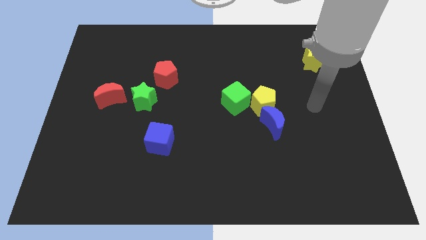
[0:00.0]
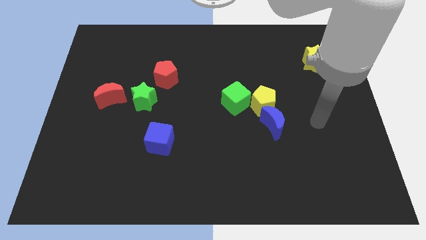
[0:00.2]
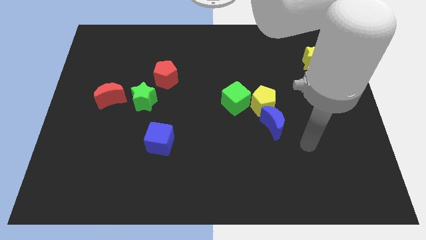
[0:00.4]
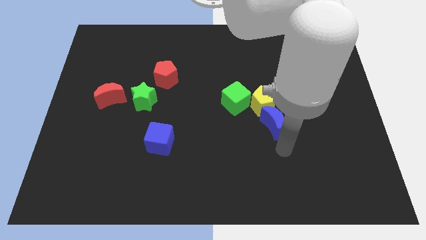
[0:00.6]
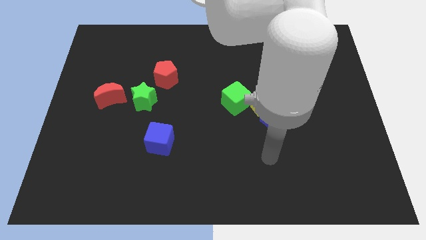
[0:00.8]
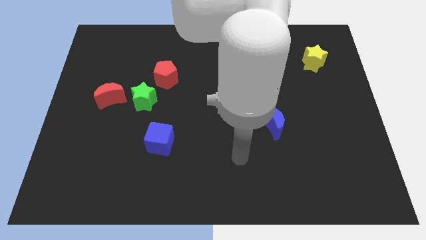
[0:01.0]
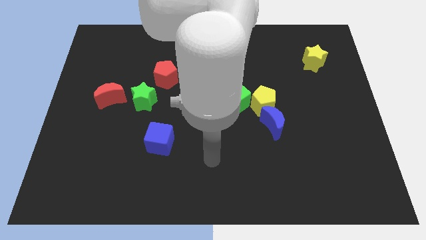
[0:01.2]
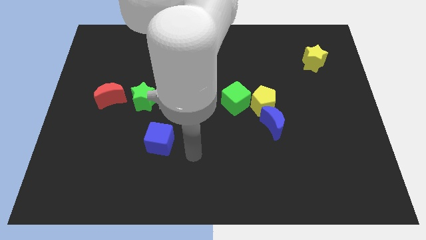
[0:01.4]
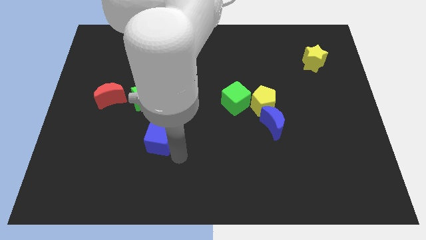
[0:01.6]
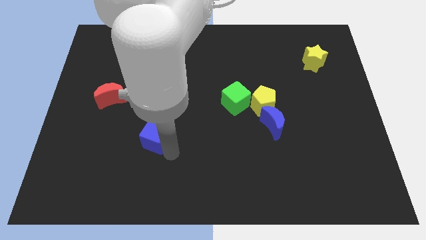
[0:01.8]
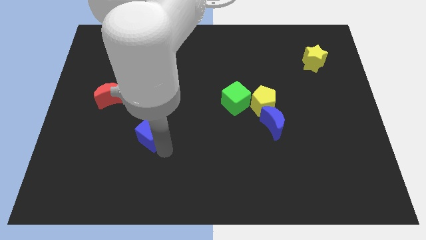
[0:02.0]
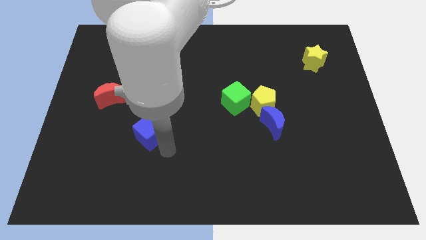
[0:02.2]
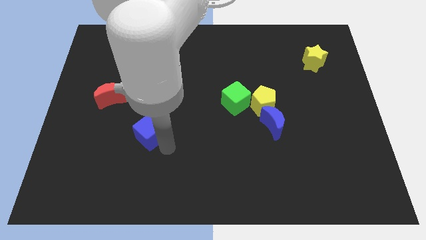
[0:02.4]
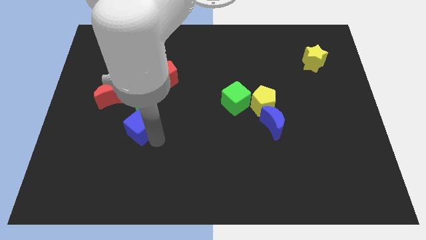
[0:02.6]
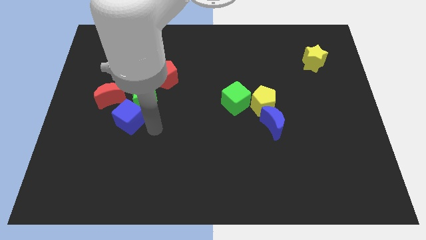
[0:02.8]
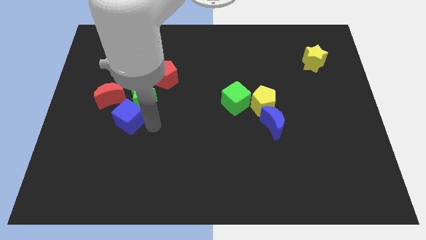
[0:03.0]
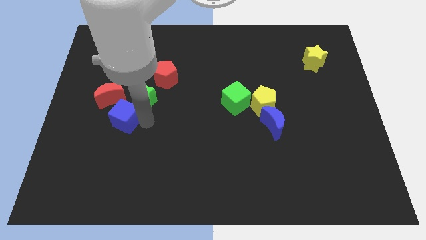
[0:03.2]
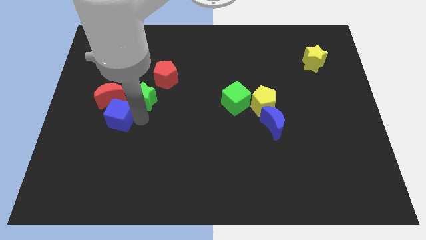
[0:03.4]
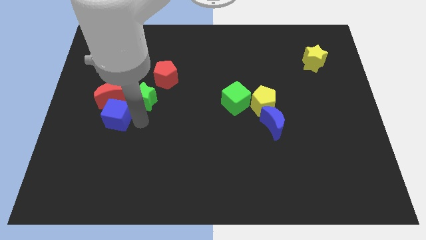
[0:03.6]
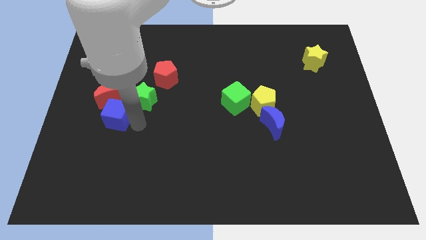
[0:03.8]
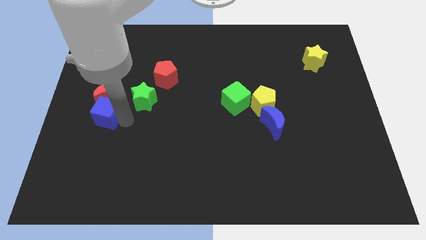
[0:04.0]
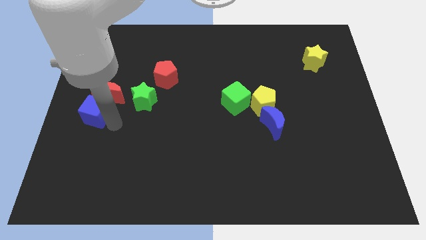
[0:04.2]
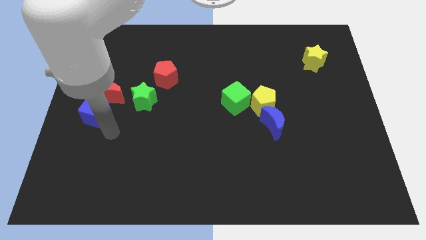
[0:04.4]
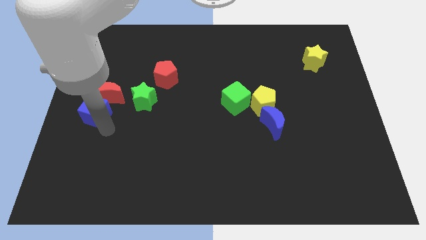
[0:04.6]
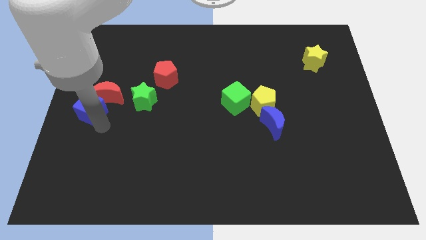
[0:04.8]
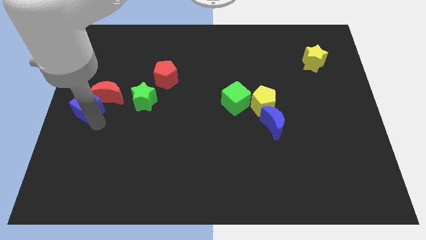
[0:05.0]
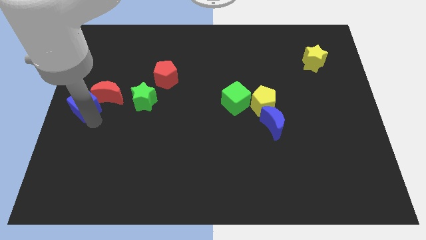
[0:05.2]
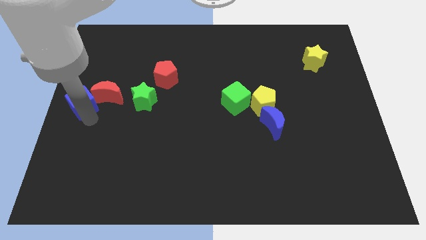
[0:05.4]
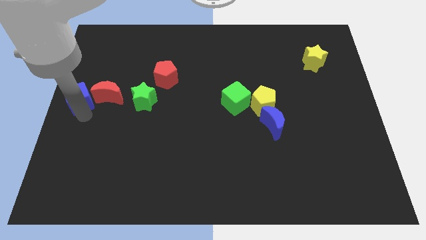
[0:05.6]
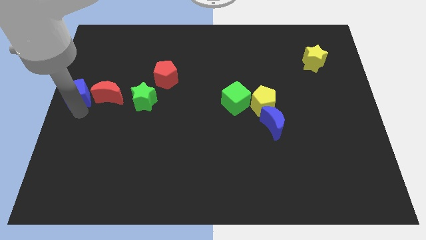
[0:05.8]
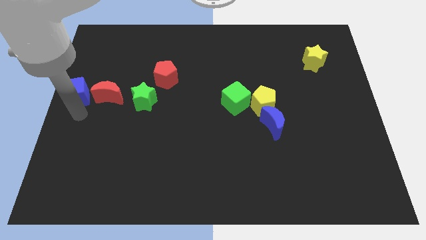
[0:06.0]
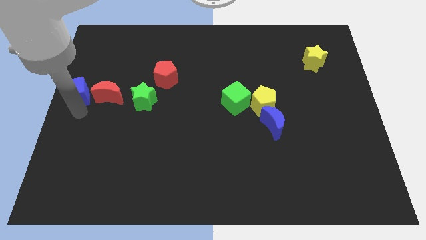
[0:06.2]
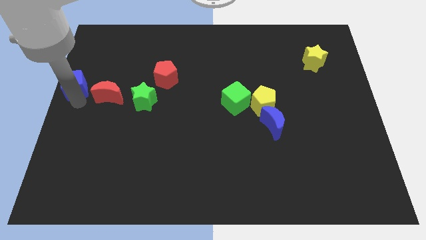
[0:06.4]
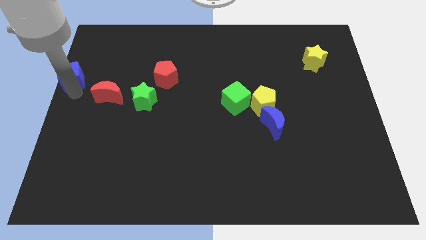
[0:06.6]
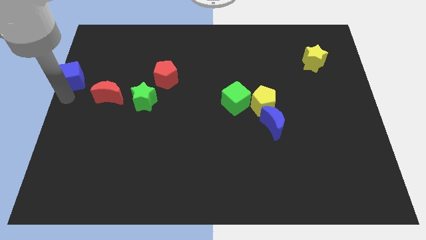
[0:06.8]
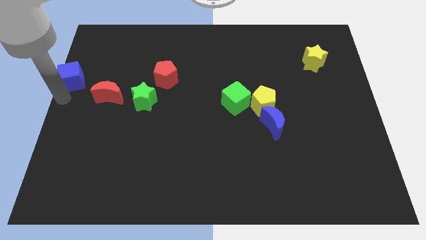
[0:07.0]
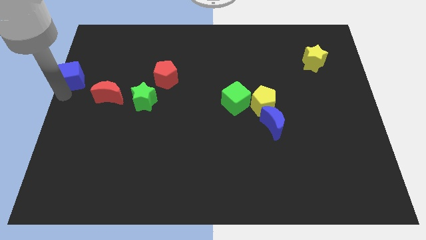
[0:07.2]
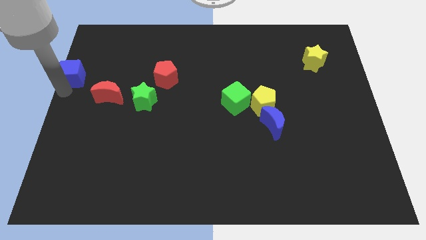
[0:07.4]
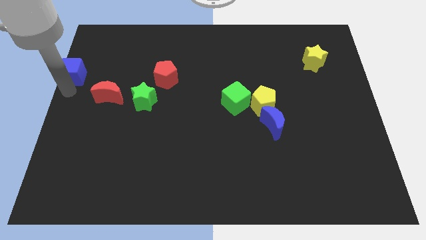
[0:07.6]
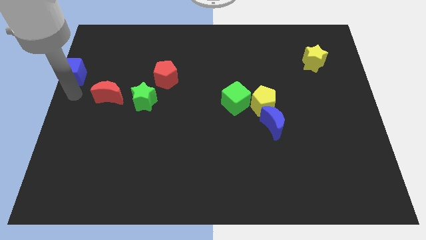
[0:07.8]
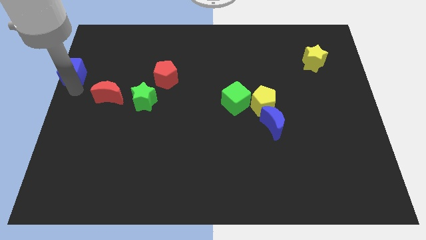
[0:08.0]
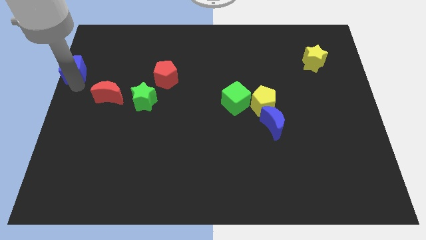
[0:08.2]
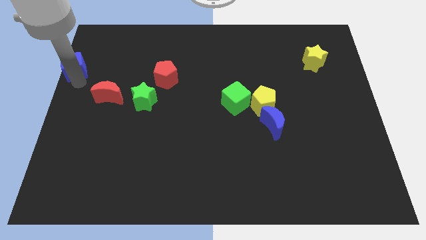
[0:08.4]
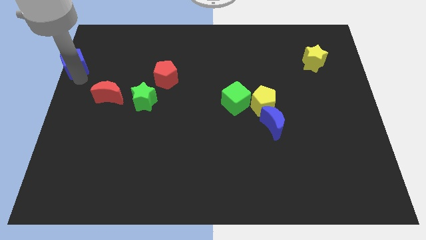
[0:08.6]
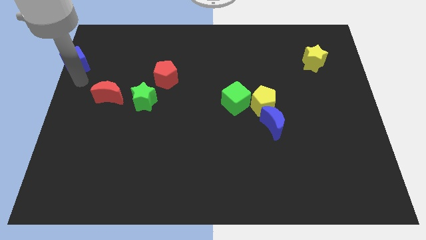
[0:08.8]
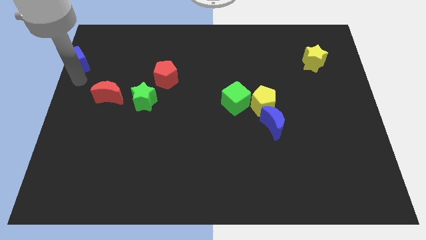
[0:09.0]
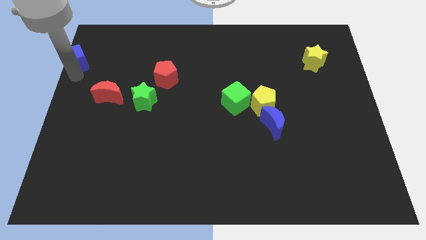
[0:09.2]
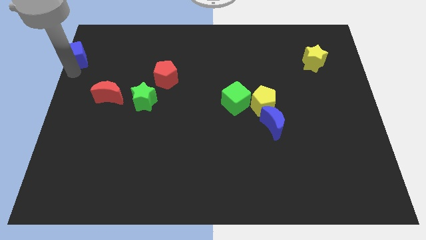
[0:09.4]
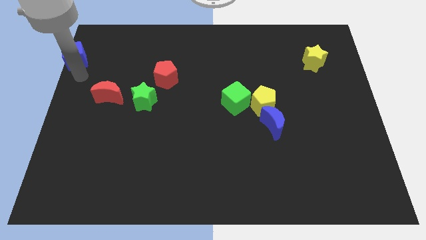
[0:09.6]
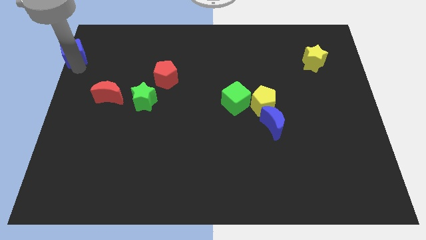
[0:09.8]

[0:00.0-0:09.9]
put the blue cube to the top left of the board

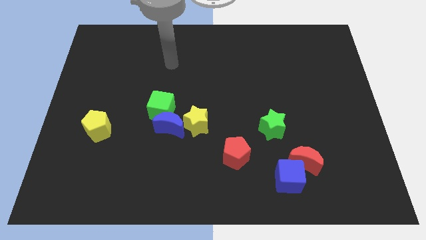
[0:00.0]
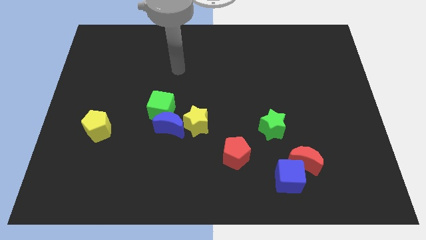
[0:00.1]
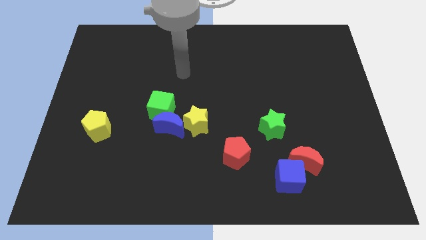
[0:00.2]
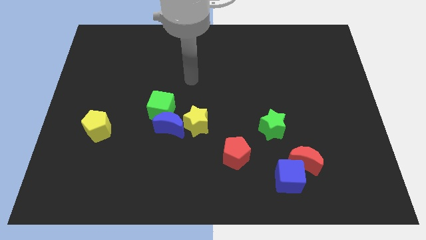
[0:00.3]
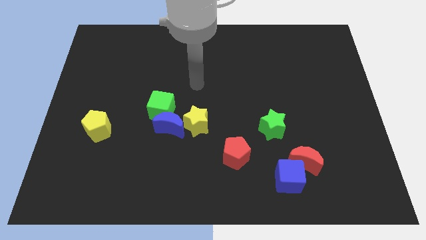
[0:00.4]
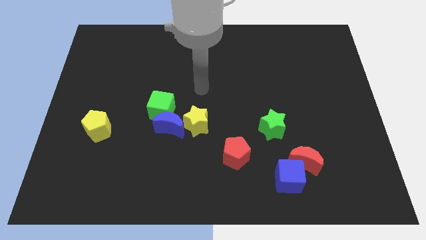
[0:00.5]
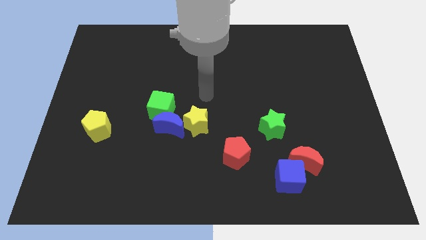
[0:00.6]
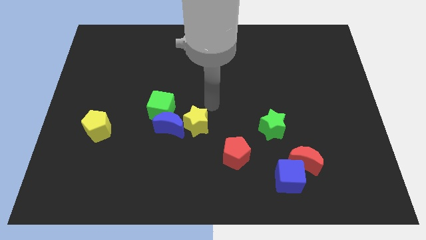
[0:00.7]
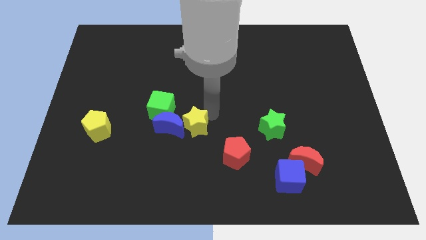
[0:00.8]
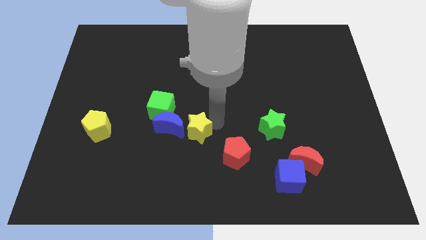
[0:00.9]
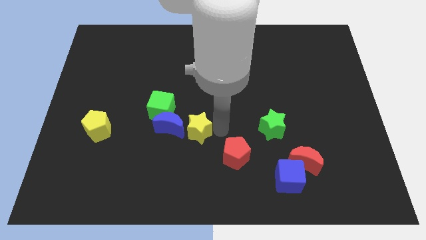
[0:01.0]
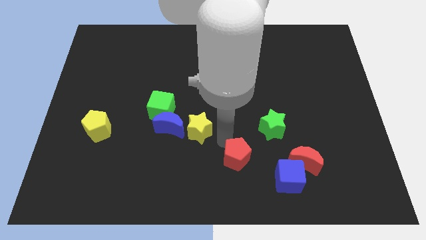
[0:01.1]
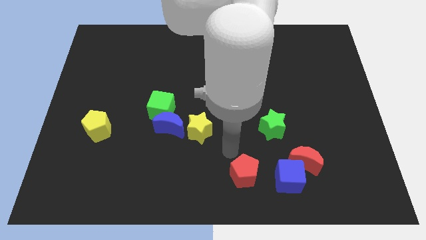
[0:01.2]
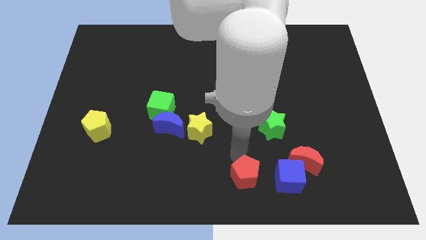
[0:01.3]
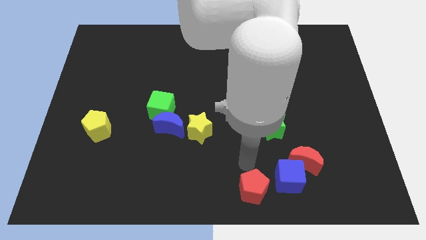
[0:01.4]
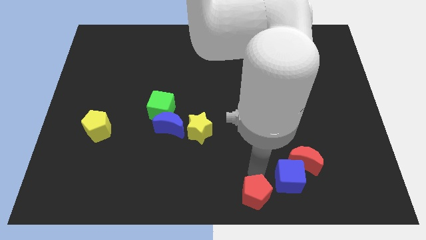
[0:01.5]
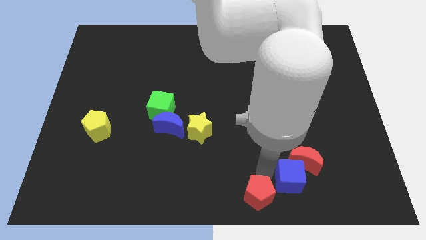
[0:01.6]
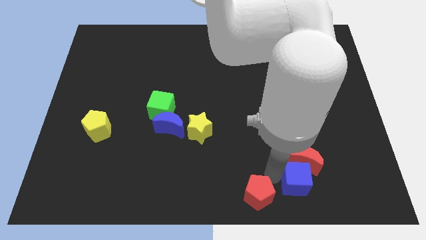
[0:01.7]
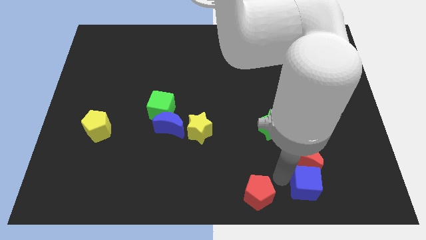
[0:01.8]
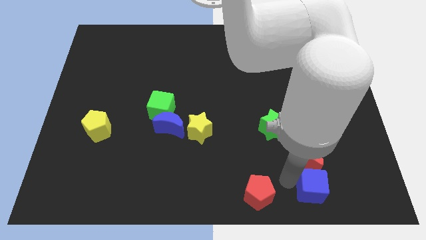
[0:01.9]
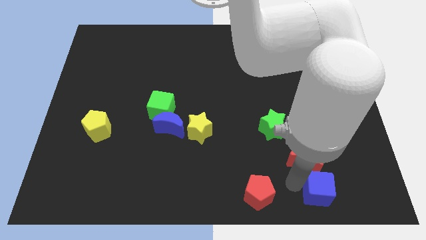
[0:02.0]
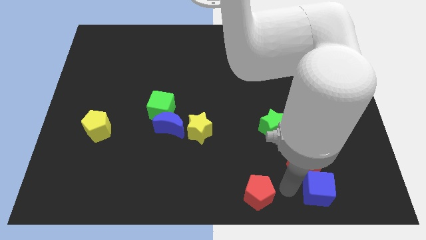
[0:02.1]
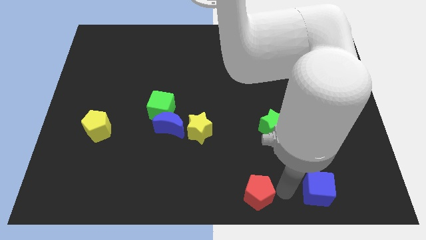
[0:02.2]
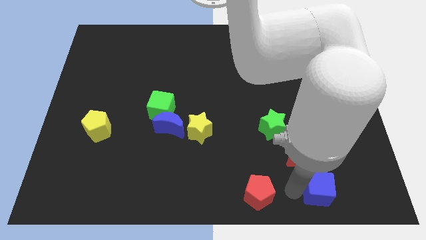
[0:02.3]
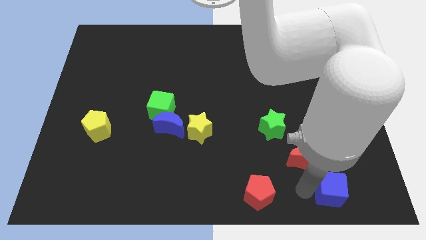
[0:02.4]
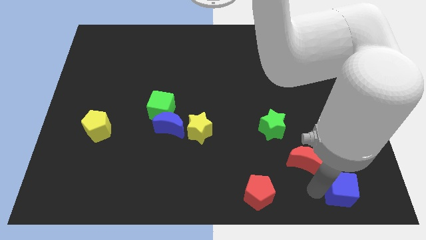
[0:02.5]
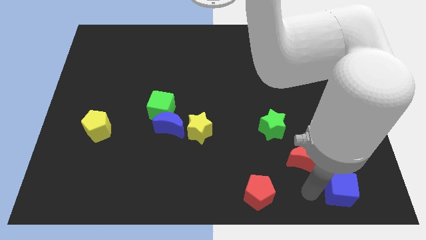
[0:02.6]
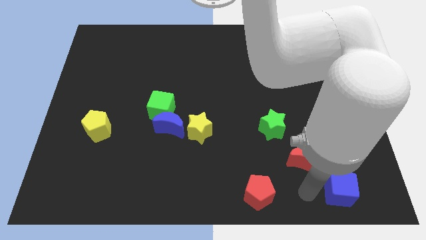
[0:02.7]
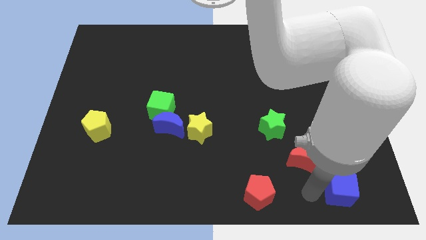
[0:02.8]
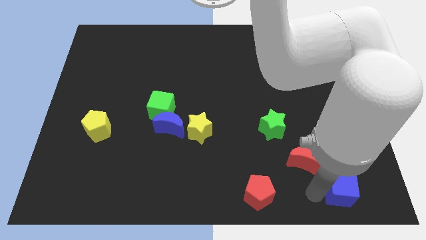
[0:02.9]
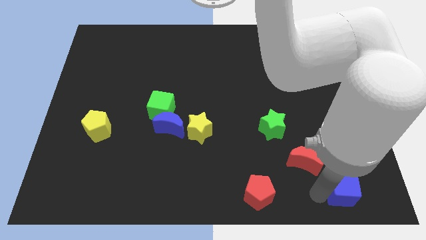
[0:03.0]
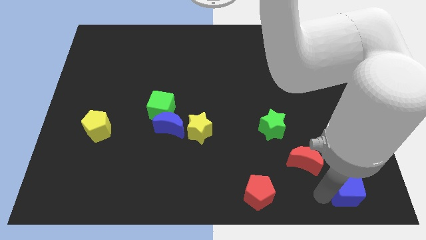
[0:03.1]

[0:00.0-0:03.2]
push the blue cube to the bottom right of the board

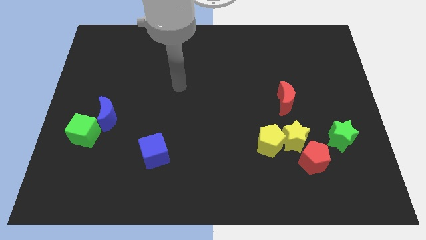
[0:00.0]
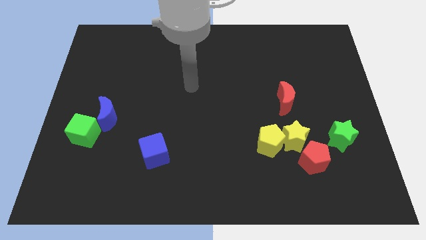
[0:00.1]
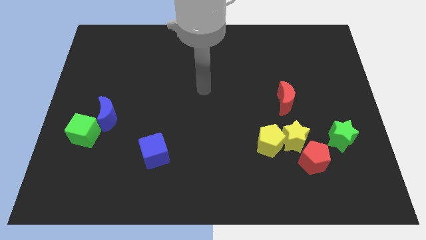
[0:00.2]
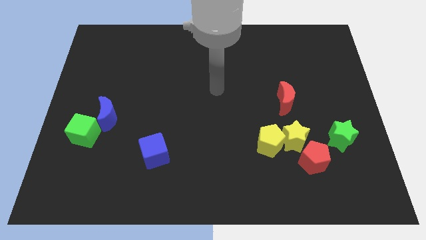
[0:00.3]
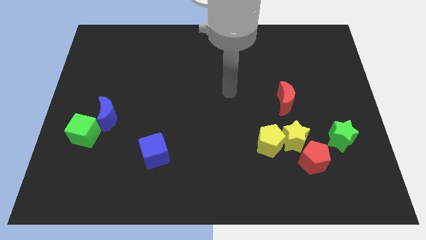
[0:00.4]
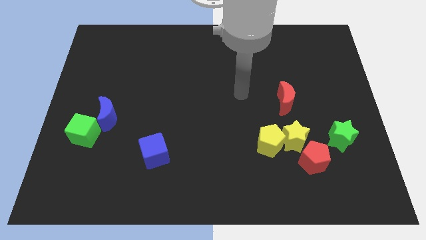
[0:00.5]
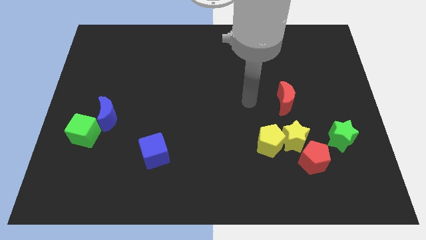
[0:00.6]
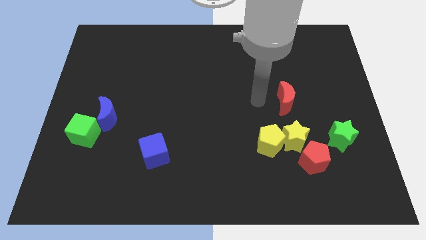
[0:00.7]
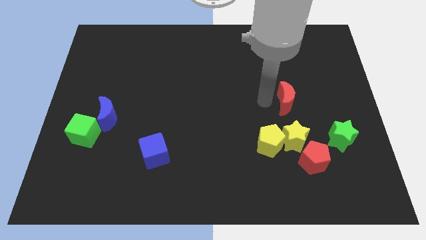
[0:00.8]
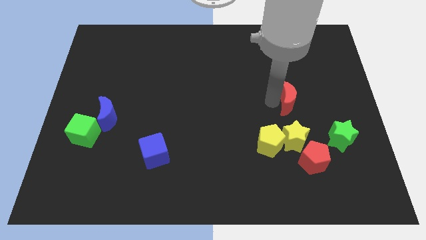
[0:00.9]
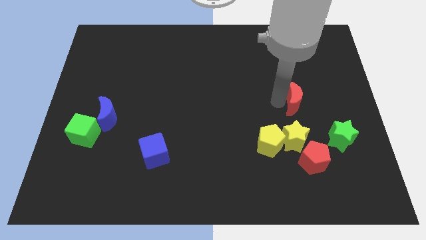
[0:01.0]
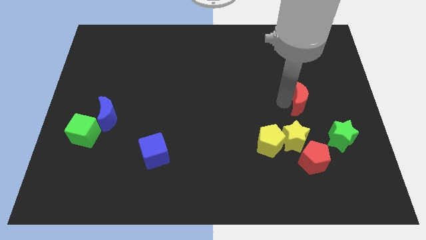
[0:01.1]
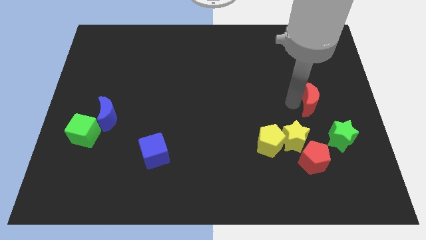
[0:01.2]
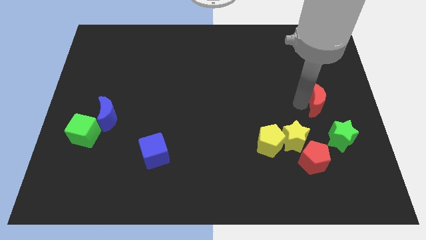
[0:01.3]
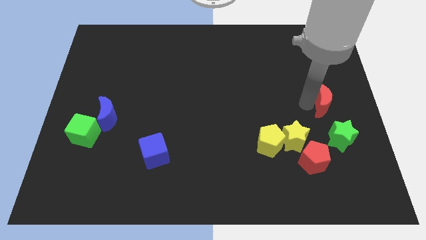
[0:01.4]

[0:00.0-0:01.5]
put the red moon to the center right
